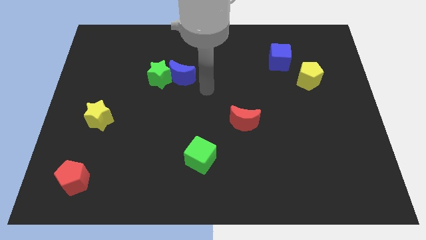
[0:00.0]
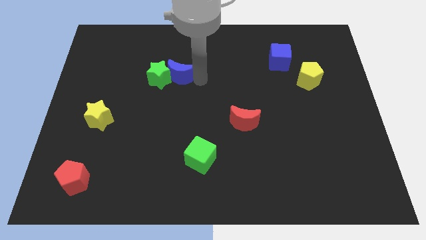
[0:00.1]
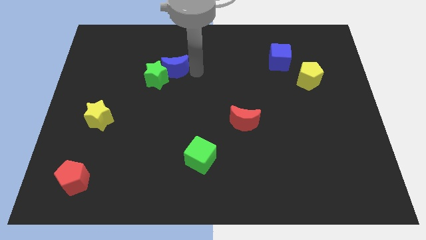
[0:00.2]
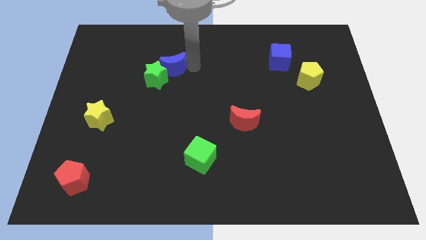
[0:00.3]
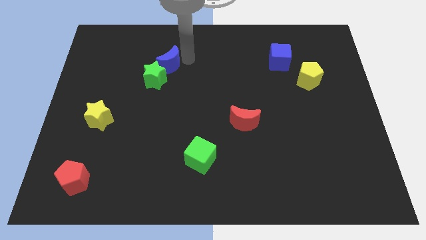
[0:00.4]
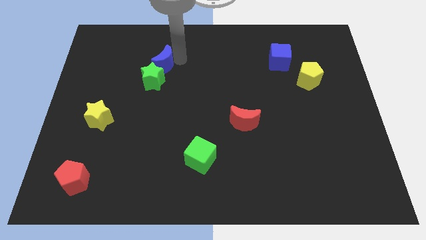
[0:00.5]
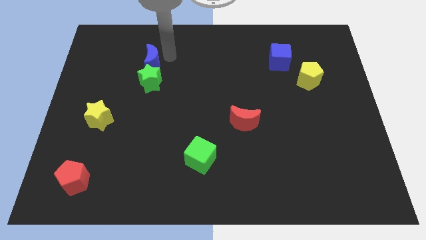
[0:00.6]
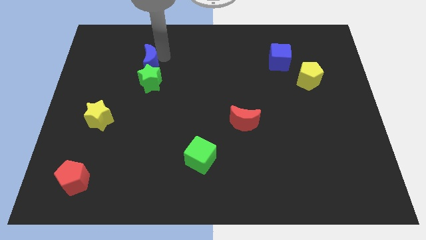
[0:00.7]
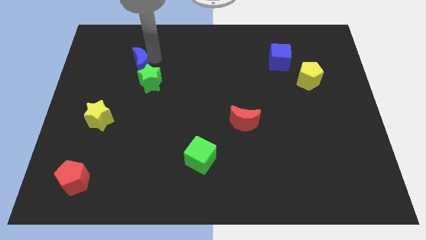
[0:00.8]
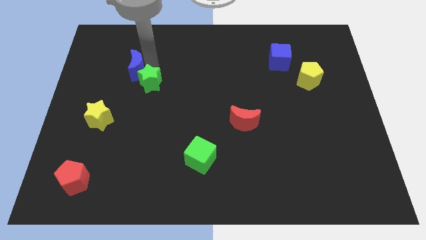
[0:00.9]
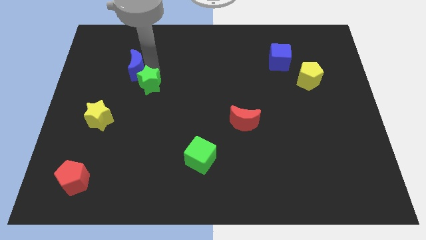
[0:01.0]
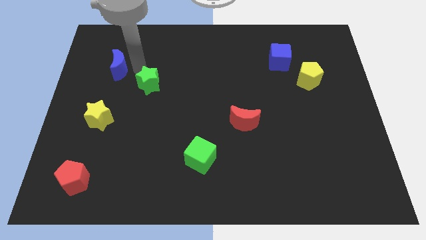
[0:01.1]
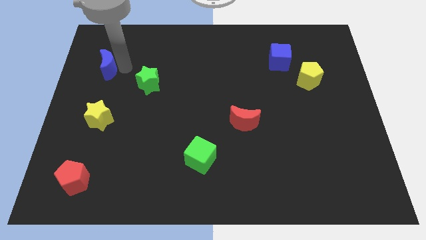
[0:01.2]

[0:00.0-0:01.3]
separate the blue moon from the green star

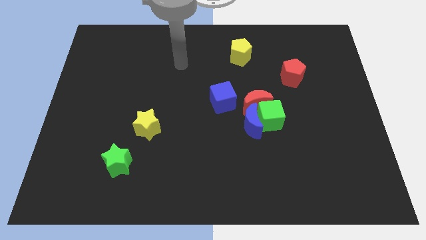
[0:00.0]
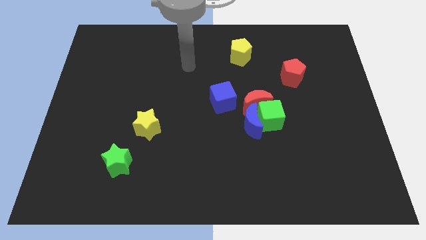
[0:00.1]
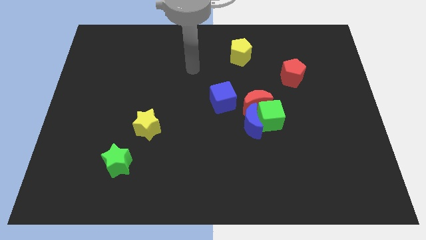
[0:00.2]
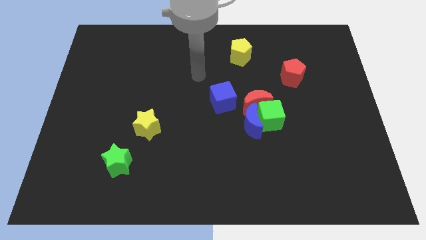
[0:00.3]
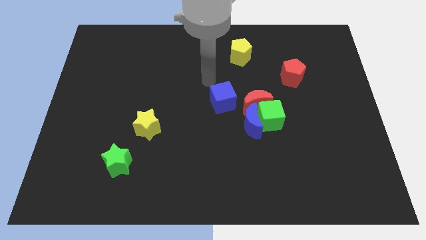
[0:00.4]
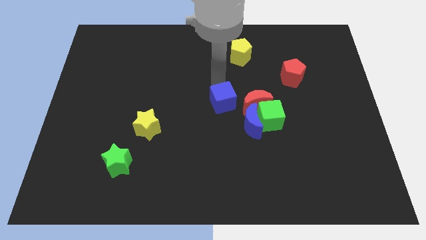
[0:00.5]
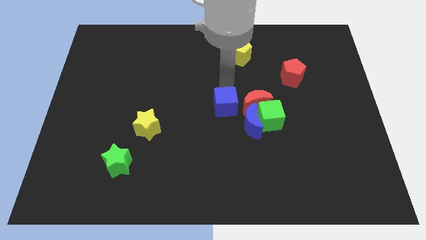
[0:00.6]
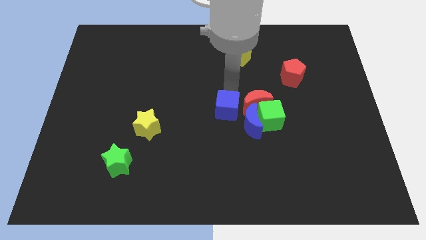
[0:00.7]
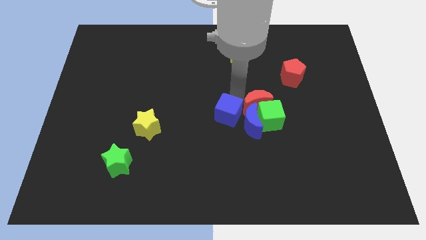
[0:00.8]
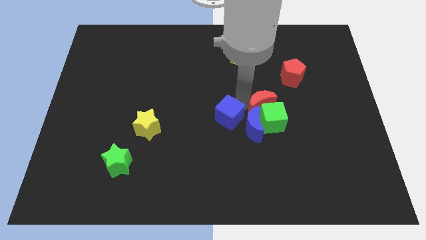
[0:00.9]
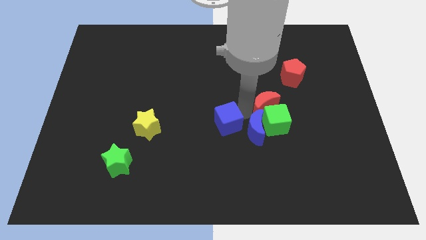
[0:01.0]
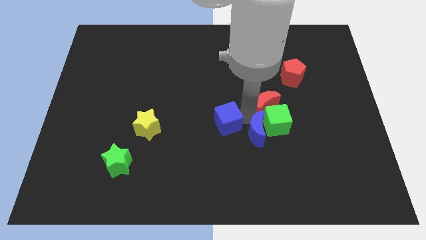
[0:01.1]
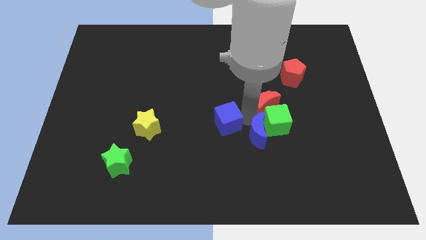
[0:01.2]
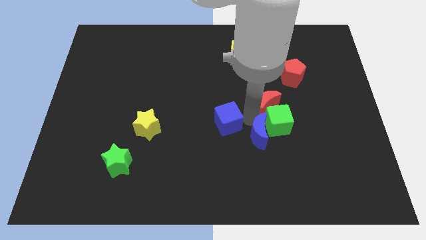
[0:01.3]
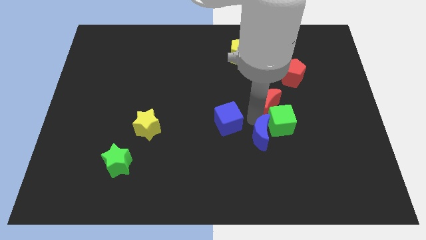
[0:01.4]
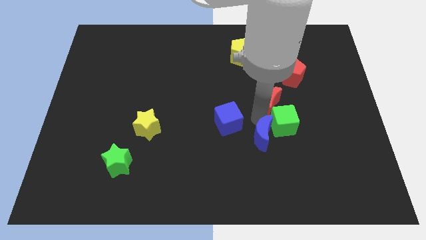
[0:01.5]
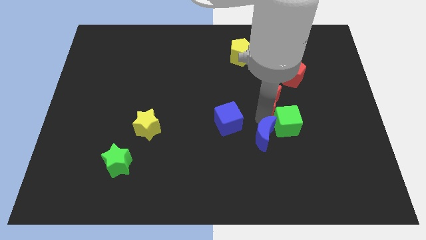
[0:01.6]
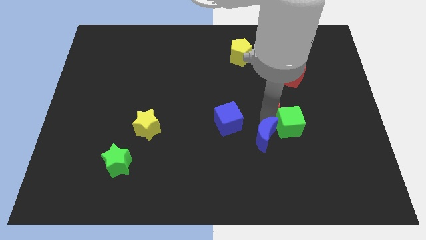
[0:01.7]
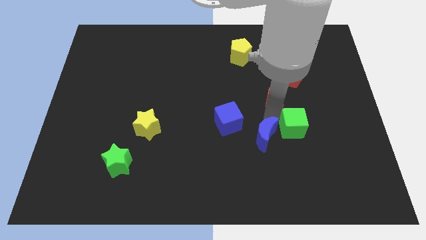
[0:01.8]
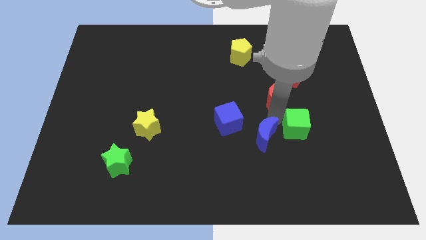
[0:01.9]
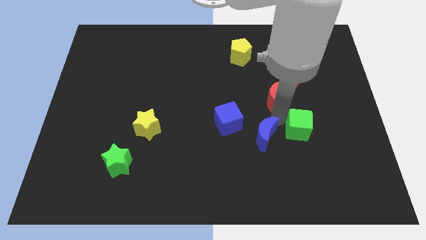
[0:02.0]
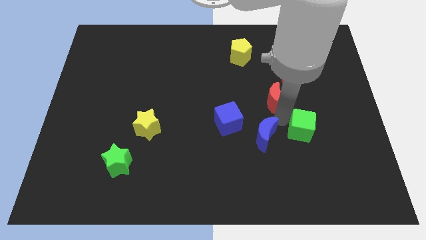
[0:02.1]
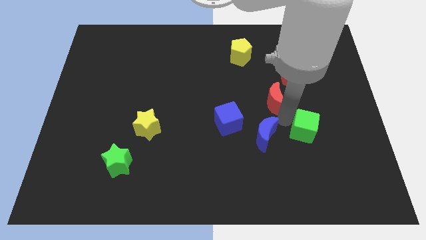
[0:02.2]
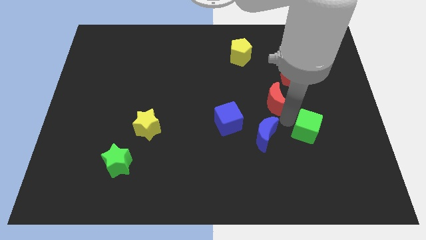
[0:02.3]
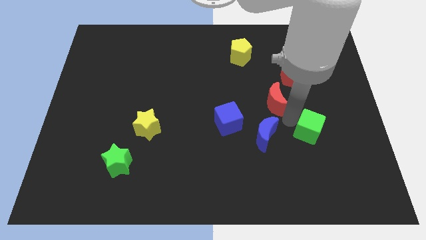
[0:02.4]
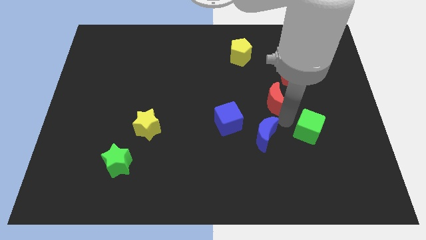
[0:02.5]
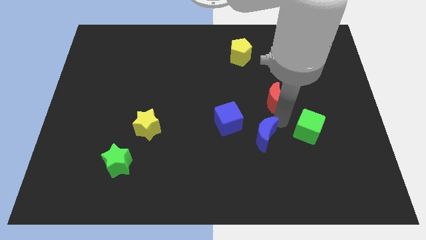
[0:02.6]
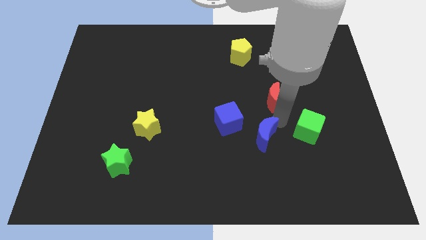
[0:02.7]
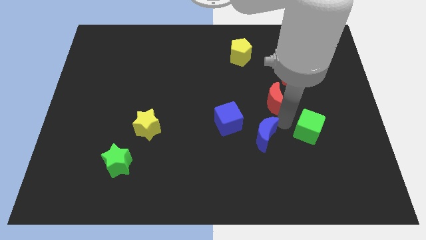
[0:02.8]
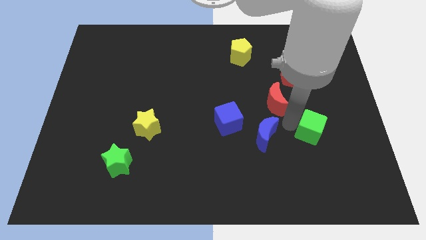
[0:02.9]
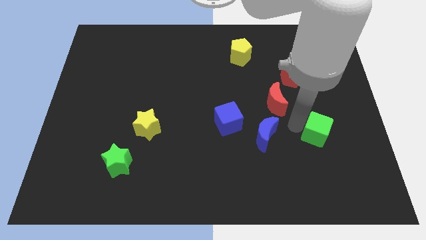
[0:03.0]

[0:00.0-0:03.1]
pull the green cube apart from the blue moon and red moon

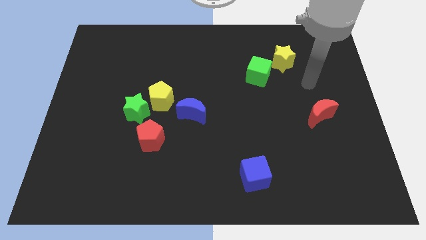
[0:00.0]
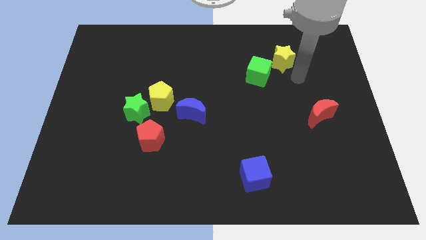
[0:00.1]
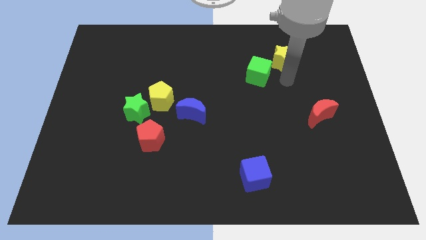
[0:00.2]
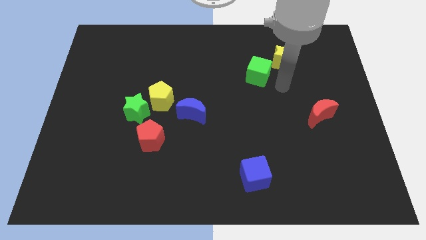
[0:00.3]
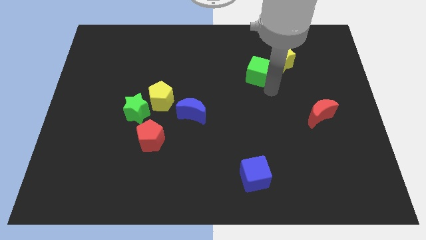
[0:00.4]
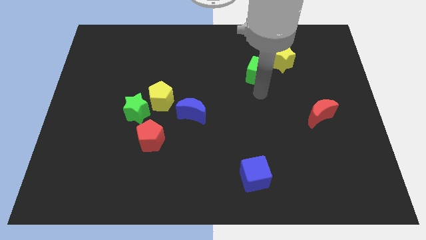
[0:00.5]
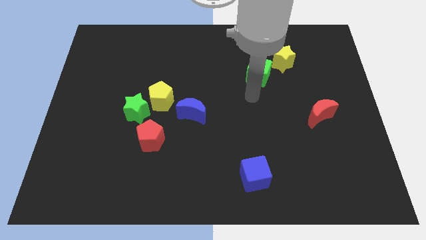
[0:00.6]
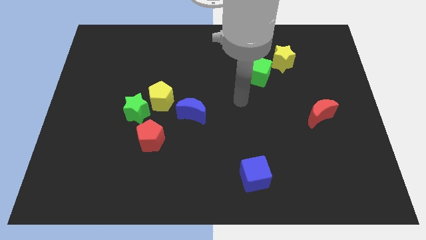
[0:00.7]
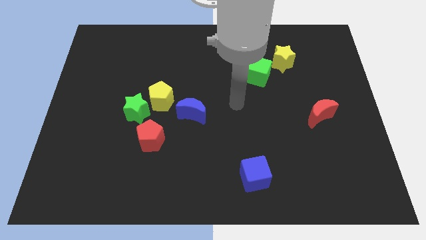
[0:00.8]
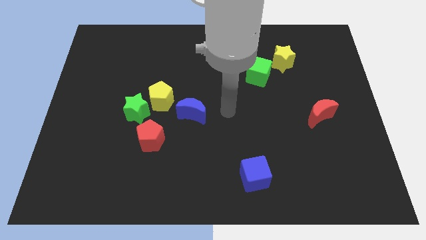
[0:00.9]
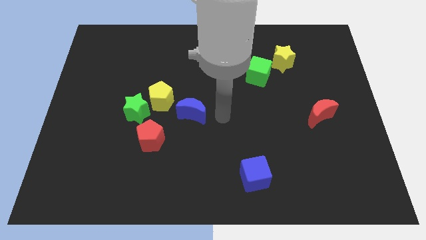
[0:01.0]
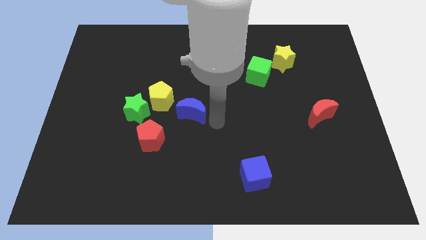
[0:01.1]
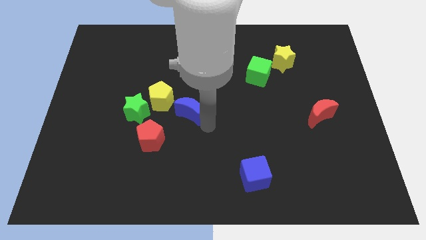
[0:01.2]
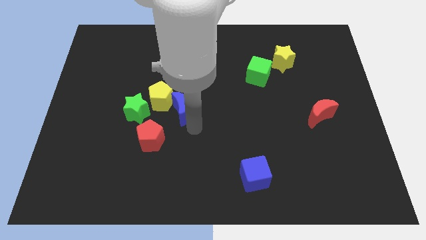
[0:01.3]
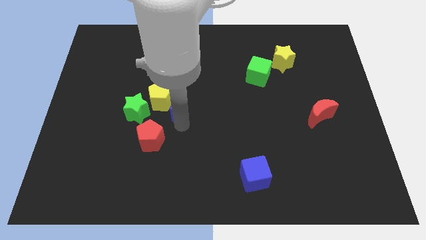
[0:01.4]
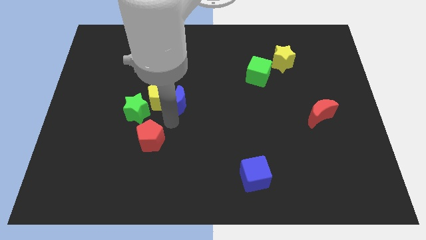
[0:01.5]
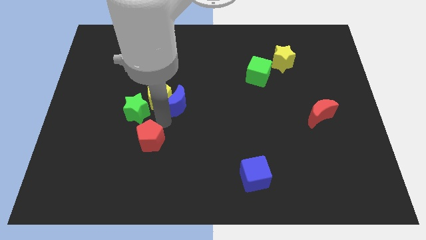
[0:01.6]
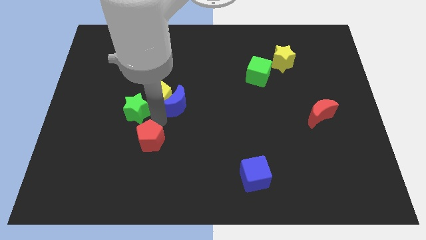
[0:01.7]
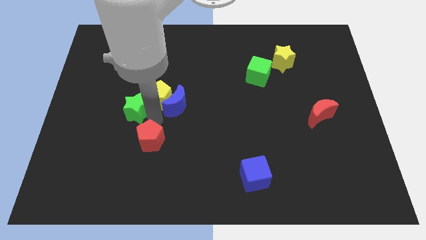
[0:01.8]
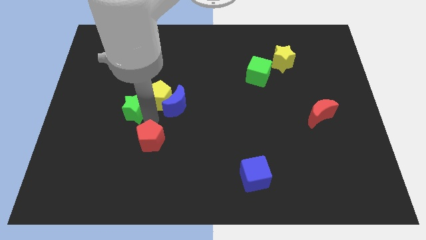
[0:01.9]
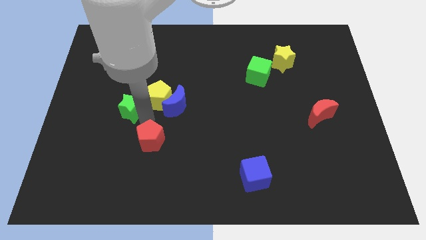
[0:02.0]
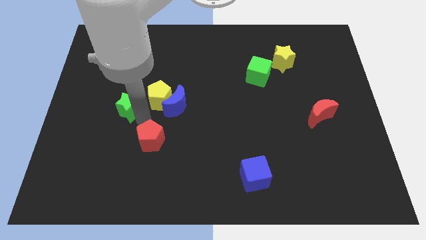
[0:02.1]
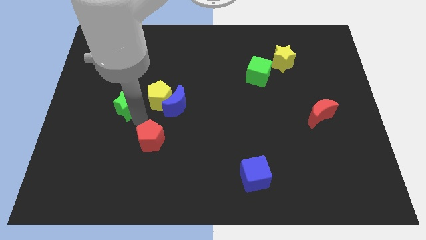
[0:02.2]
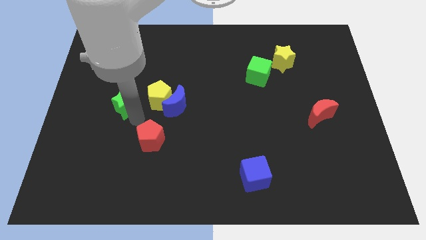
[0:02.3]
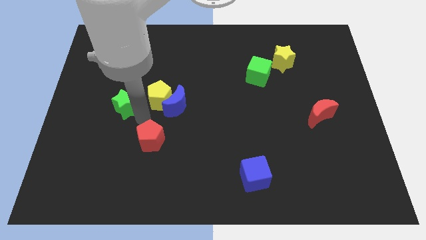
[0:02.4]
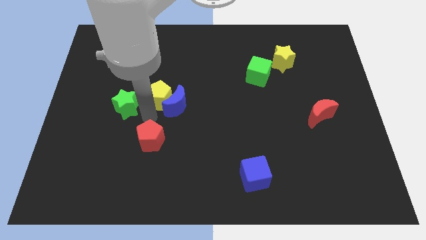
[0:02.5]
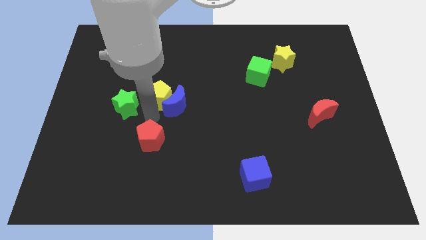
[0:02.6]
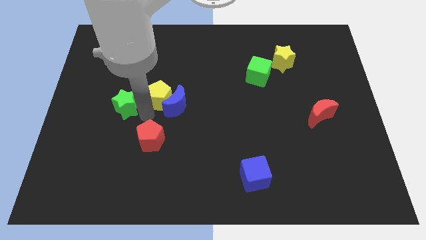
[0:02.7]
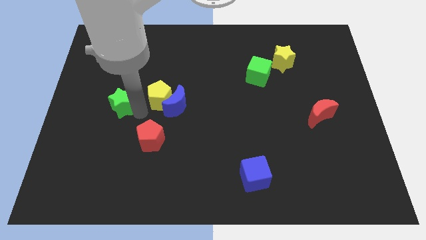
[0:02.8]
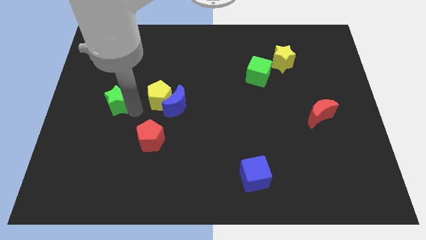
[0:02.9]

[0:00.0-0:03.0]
move the green star away from the yellow pentagon and red pentagon

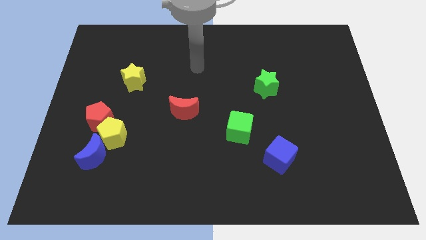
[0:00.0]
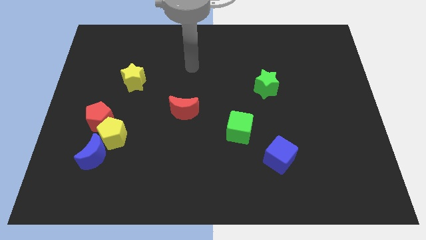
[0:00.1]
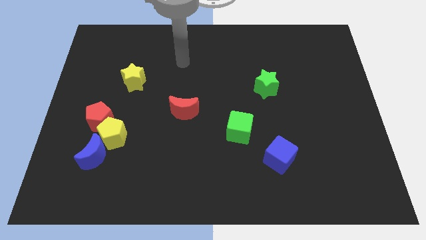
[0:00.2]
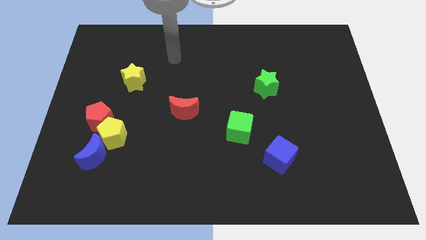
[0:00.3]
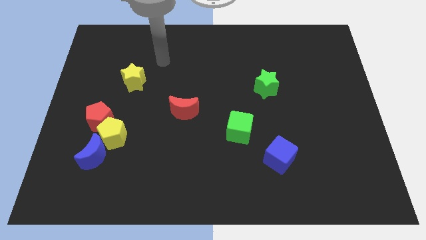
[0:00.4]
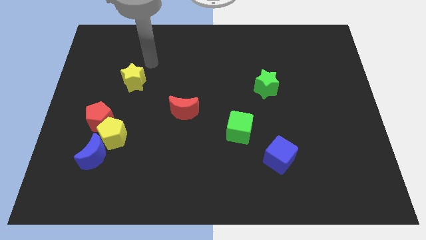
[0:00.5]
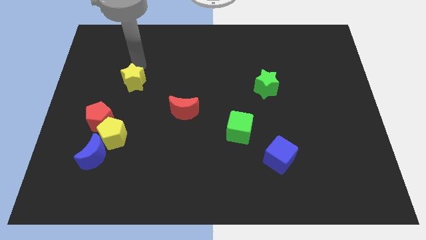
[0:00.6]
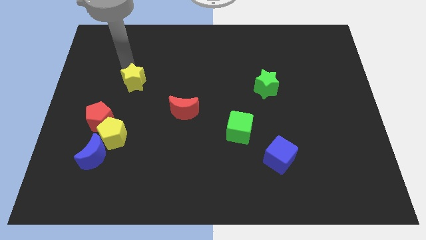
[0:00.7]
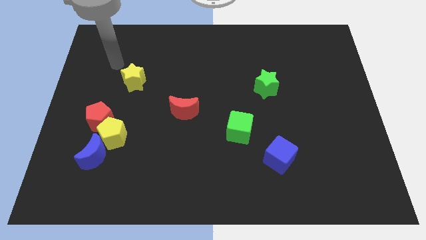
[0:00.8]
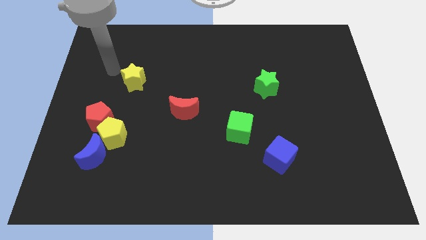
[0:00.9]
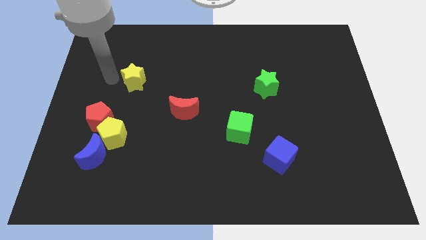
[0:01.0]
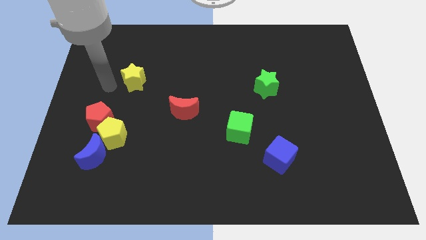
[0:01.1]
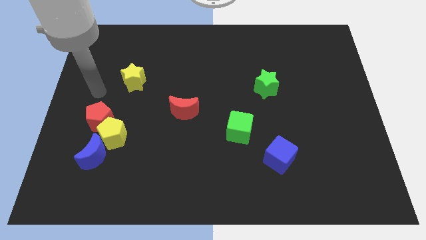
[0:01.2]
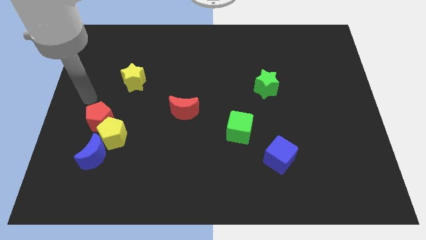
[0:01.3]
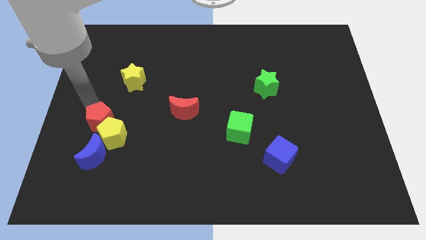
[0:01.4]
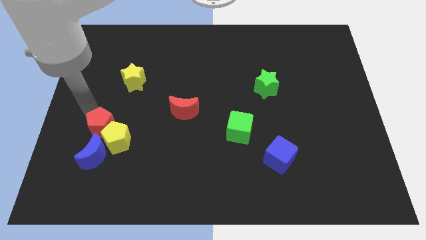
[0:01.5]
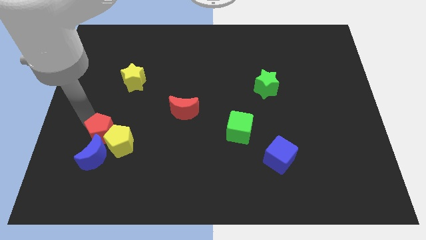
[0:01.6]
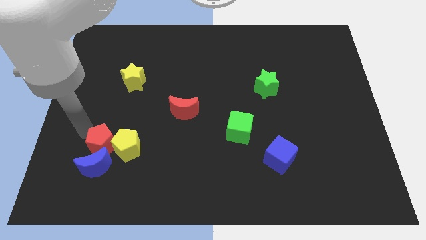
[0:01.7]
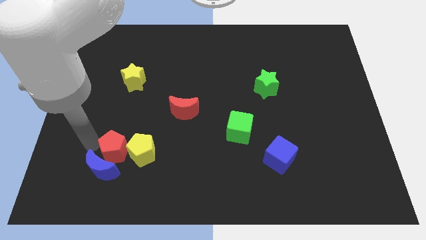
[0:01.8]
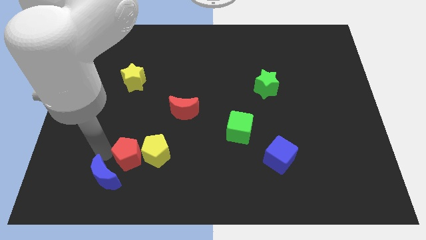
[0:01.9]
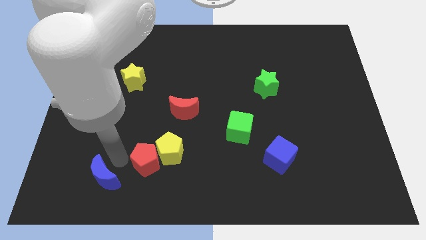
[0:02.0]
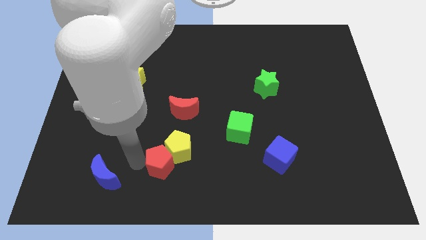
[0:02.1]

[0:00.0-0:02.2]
move the yellow pentagon away from the red pentagon and blue moon
